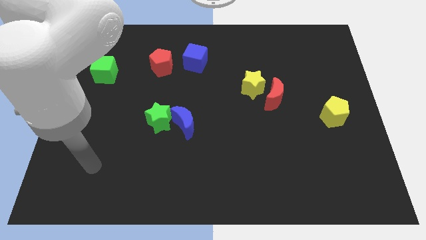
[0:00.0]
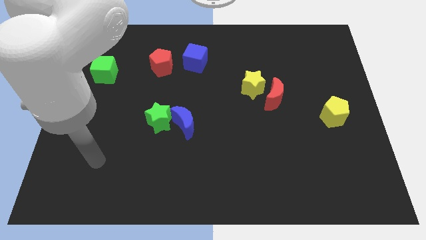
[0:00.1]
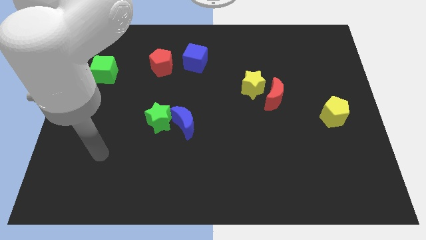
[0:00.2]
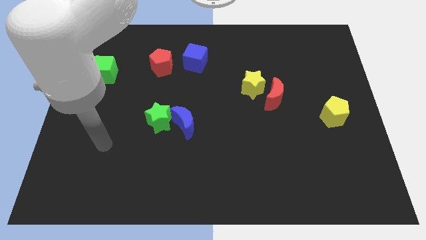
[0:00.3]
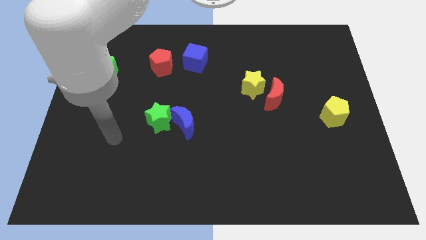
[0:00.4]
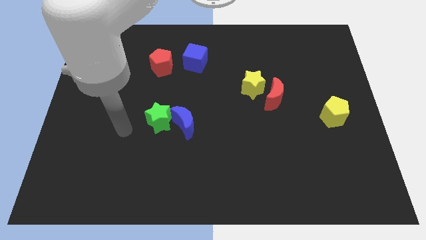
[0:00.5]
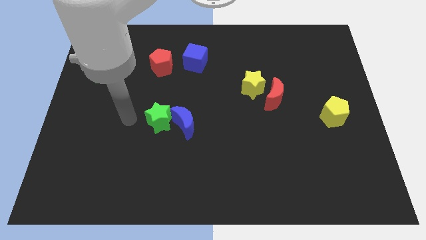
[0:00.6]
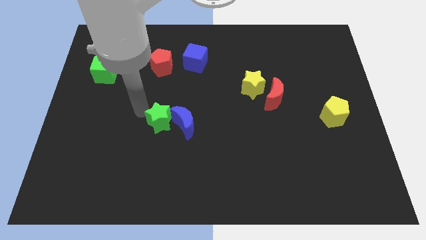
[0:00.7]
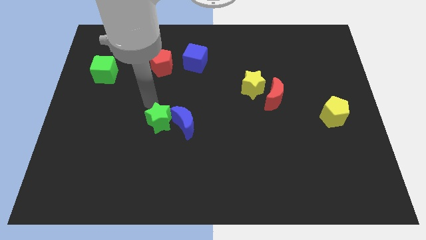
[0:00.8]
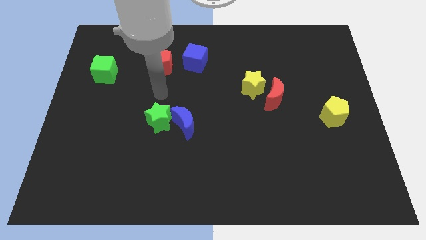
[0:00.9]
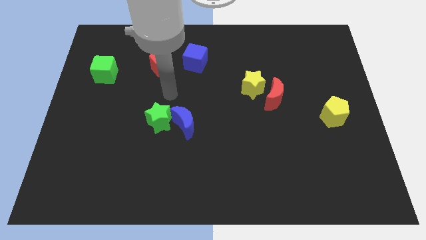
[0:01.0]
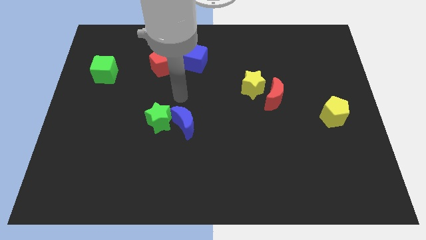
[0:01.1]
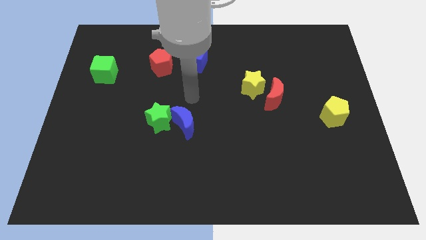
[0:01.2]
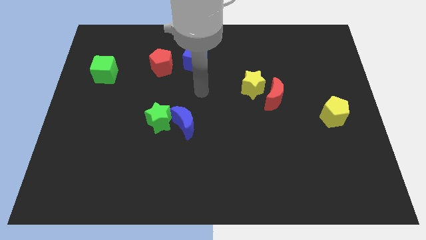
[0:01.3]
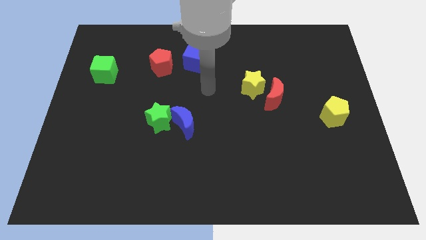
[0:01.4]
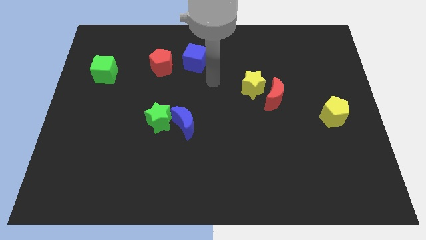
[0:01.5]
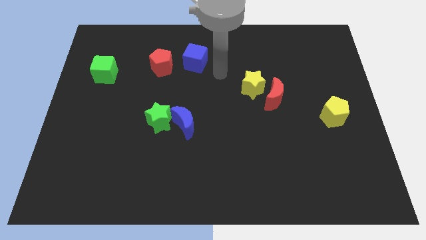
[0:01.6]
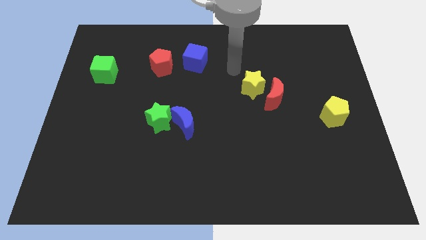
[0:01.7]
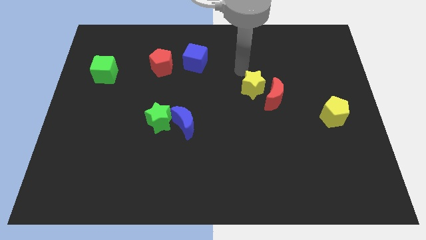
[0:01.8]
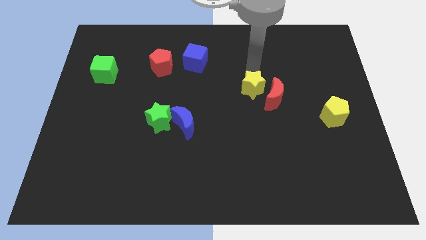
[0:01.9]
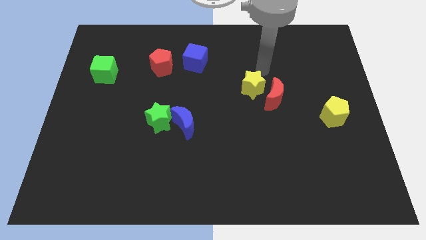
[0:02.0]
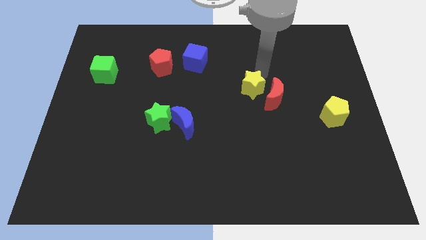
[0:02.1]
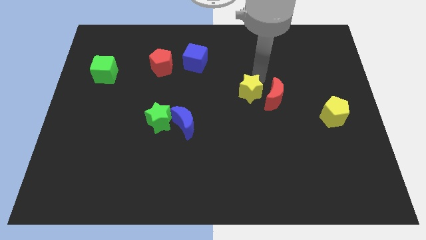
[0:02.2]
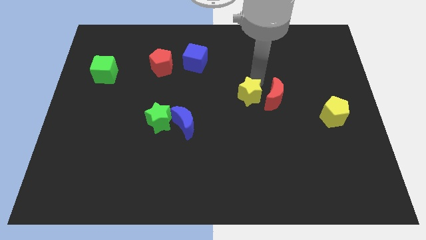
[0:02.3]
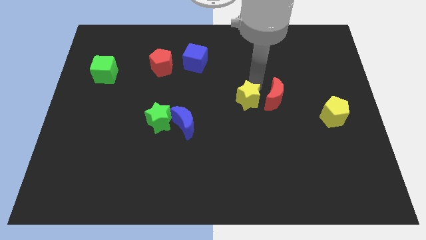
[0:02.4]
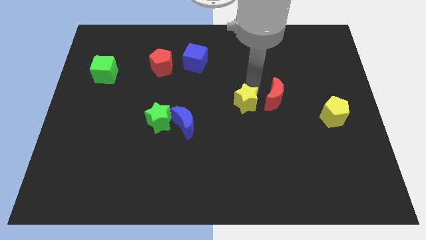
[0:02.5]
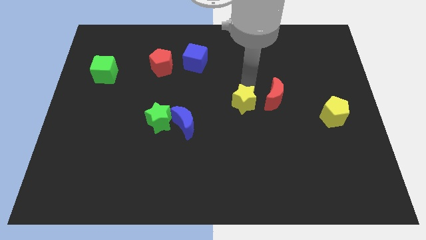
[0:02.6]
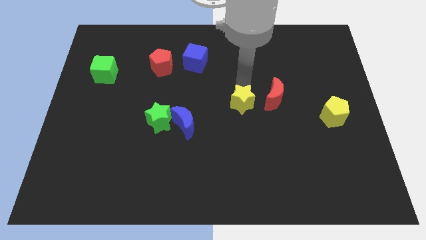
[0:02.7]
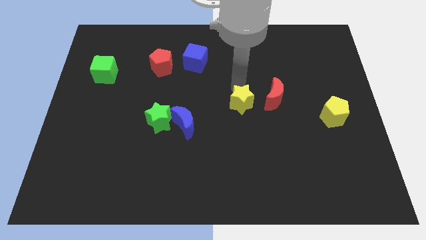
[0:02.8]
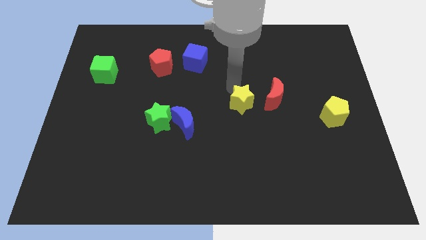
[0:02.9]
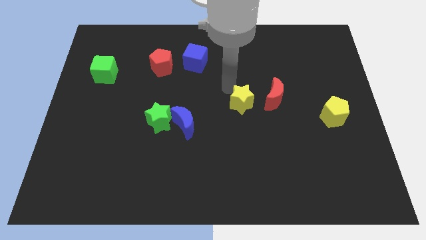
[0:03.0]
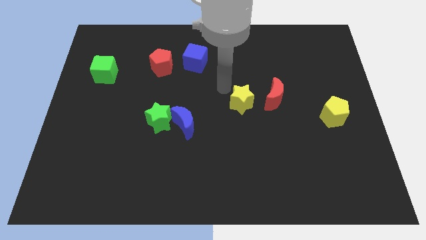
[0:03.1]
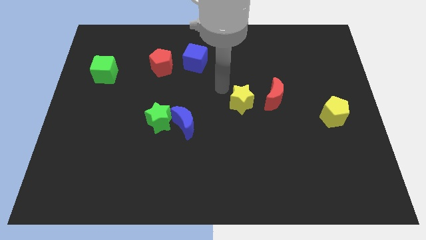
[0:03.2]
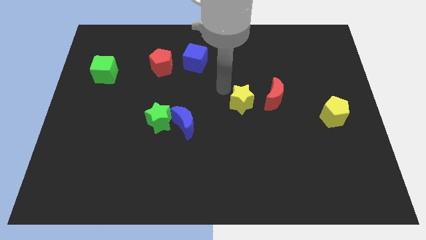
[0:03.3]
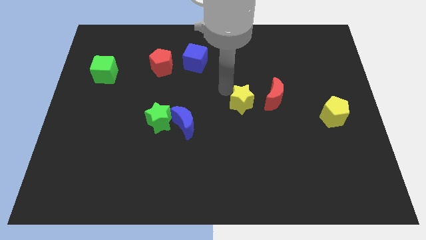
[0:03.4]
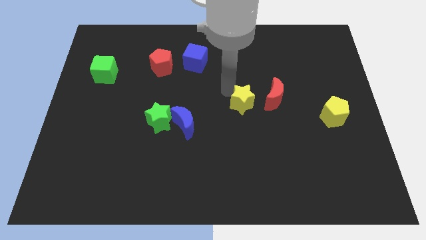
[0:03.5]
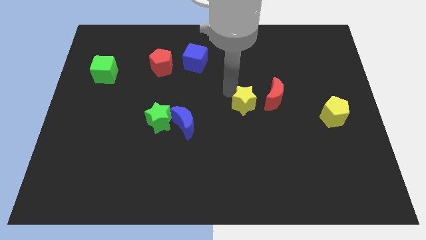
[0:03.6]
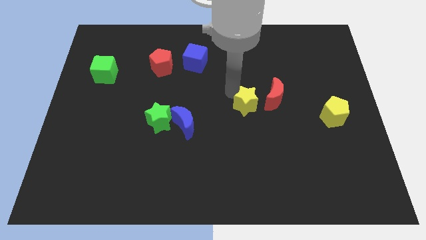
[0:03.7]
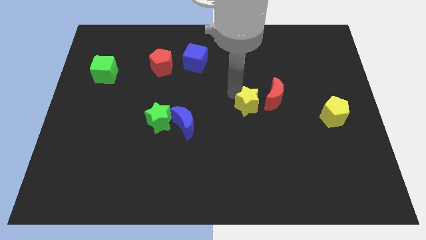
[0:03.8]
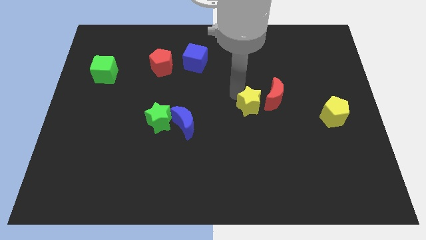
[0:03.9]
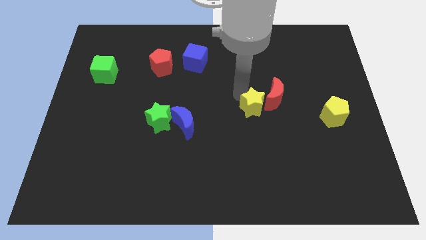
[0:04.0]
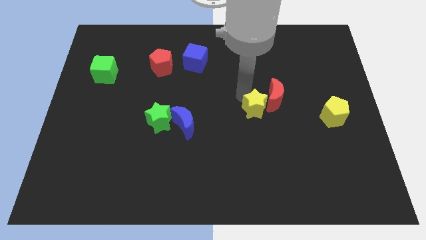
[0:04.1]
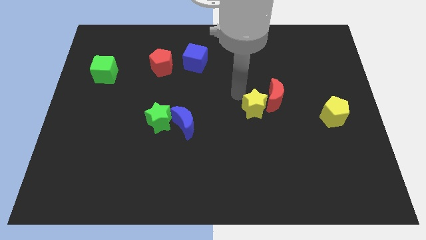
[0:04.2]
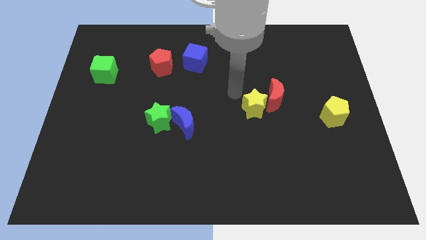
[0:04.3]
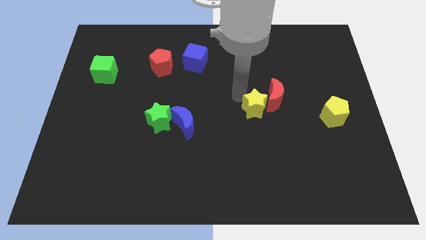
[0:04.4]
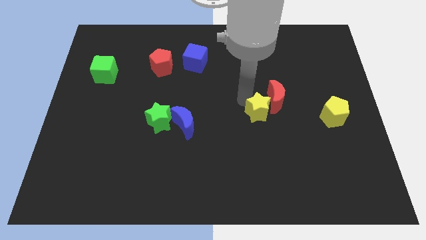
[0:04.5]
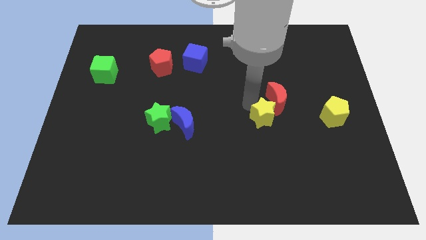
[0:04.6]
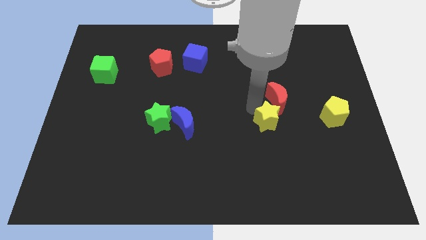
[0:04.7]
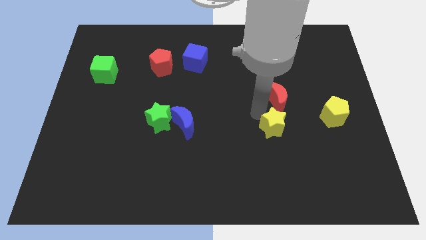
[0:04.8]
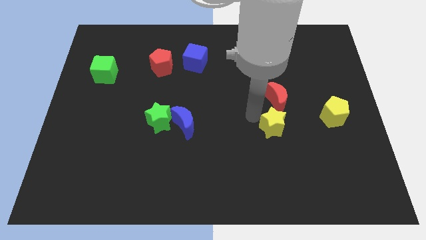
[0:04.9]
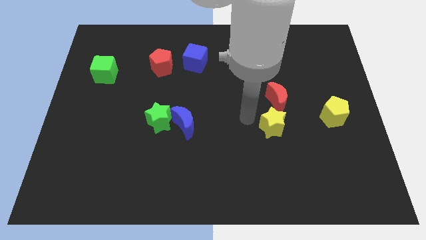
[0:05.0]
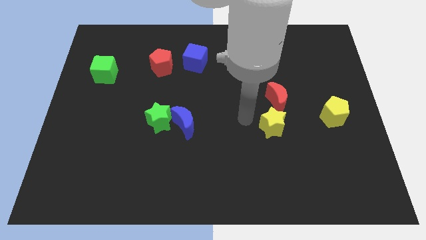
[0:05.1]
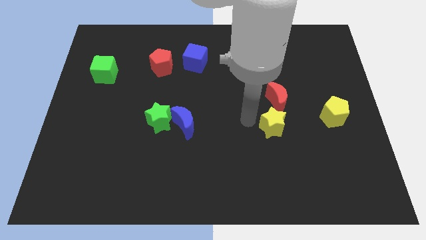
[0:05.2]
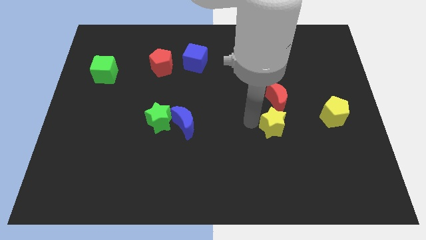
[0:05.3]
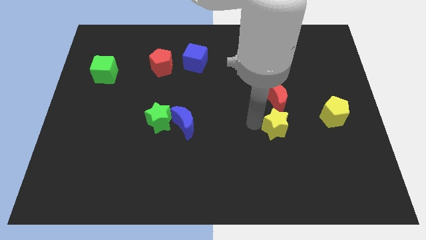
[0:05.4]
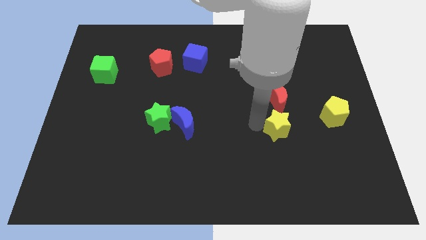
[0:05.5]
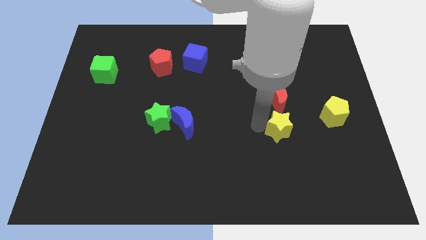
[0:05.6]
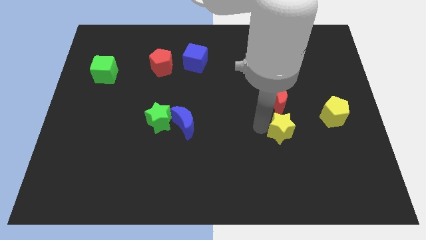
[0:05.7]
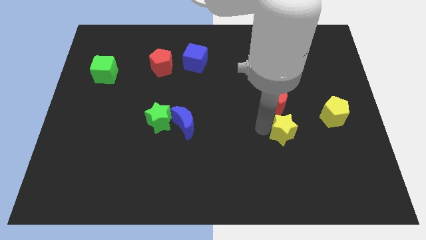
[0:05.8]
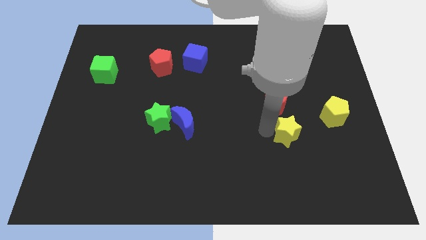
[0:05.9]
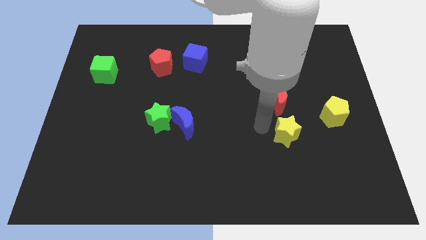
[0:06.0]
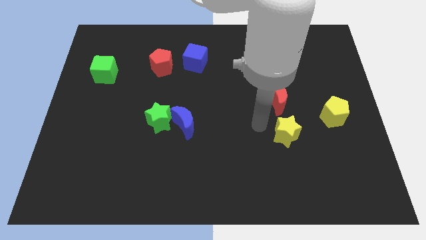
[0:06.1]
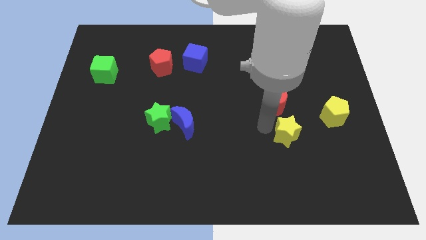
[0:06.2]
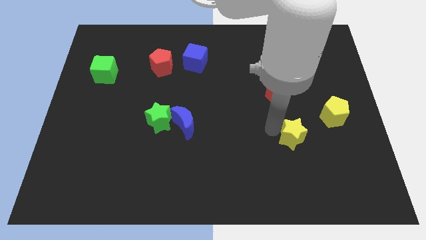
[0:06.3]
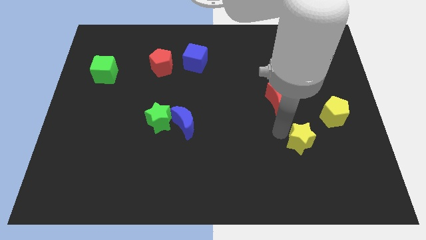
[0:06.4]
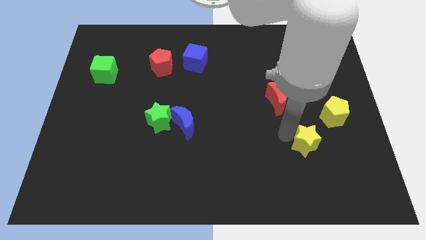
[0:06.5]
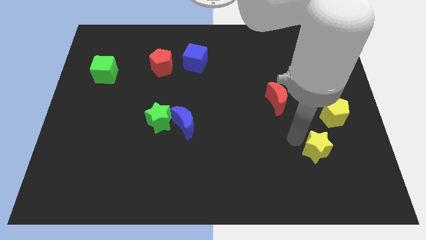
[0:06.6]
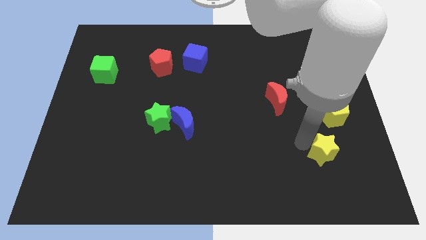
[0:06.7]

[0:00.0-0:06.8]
push the yellow star to the bottom of the yellow pentagon

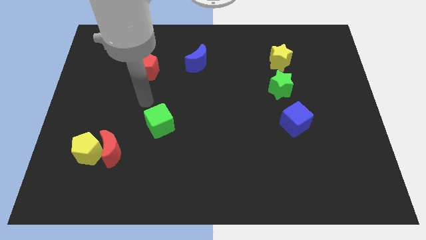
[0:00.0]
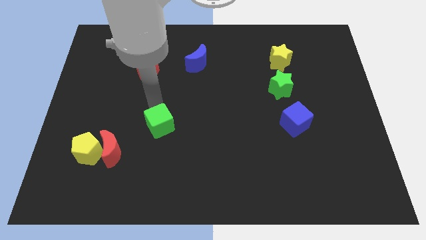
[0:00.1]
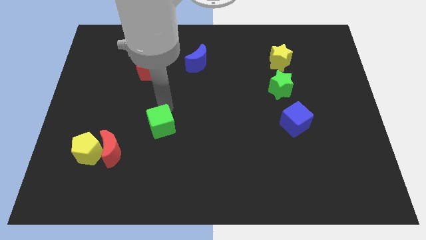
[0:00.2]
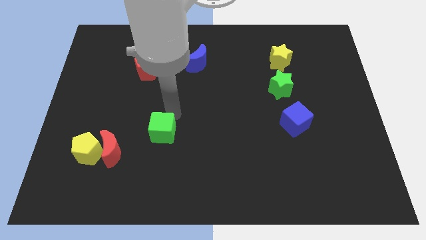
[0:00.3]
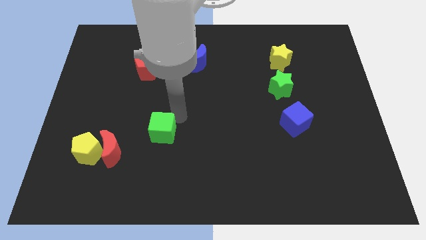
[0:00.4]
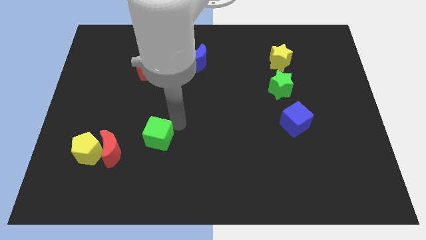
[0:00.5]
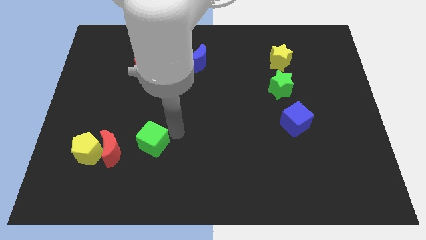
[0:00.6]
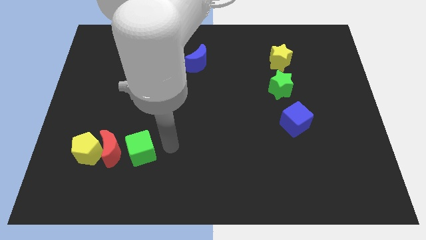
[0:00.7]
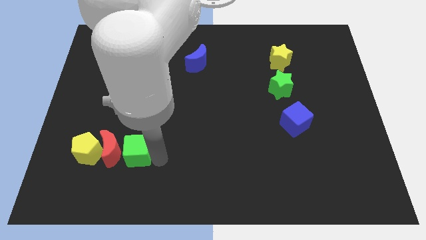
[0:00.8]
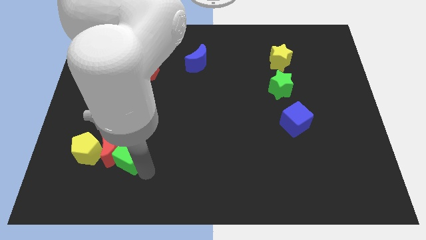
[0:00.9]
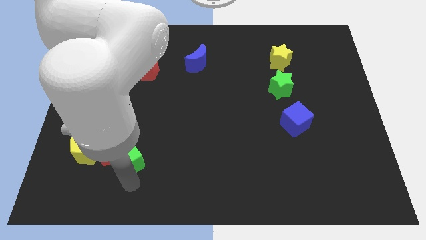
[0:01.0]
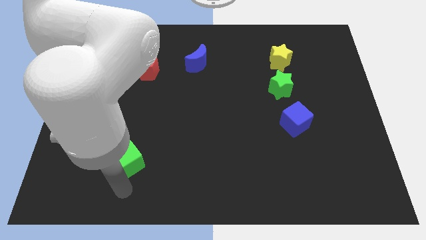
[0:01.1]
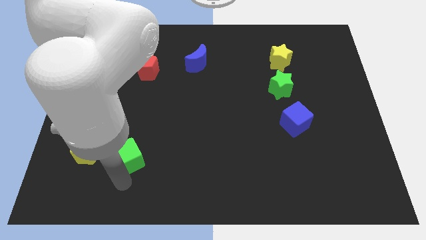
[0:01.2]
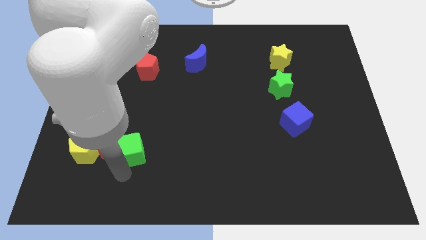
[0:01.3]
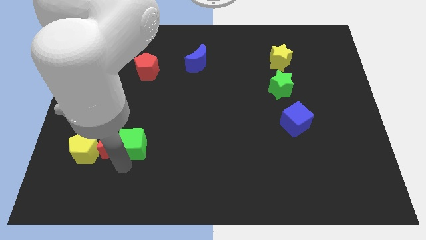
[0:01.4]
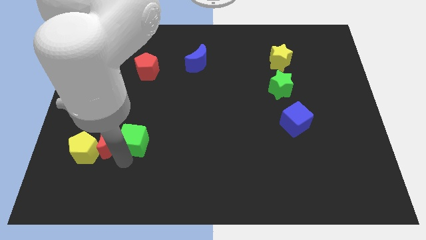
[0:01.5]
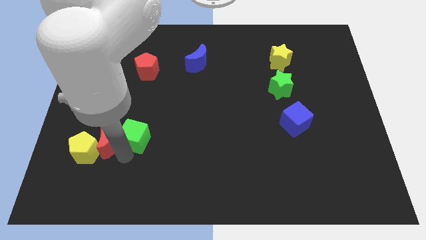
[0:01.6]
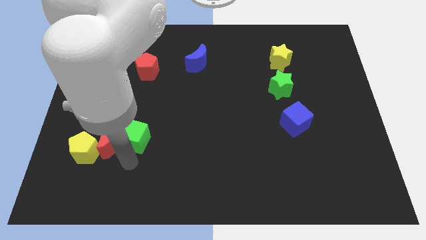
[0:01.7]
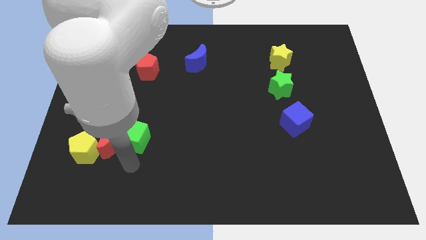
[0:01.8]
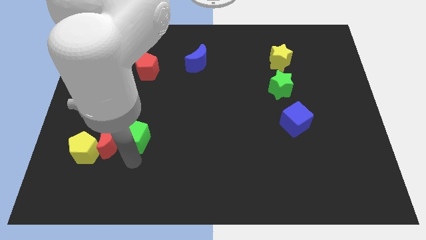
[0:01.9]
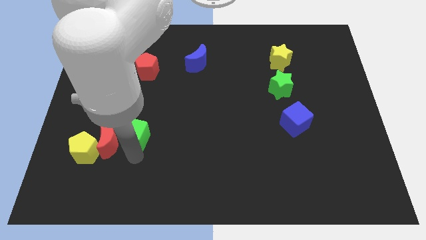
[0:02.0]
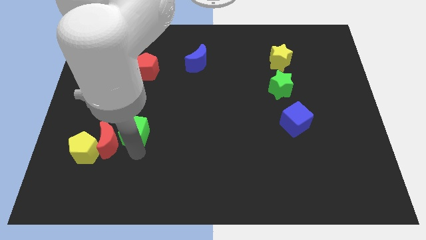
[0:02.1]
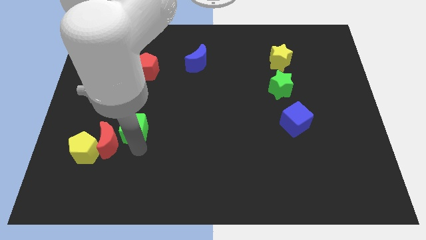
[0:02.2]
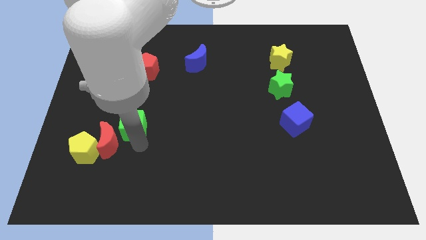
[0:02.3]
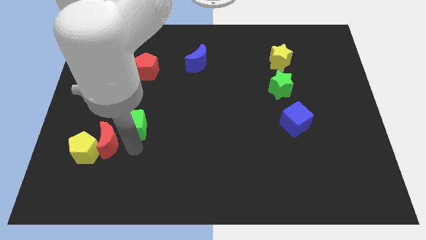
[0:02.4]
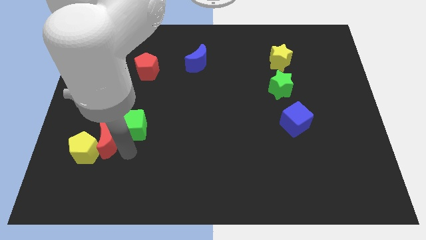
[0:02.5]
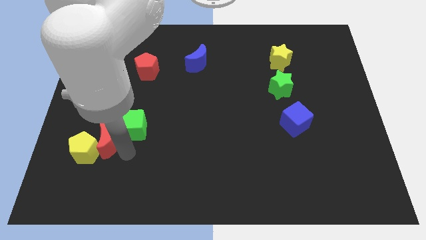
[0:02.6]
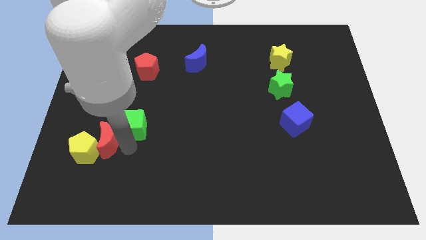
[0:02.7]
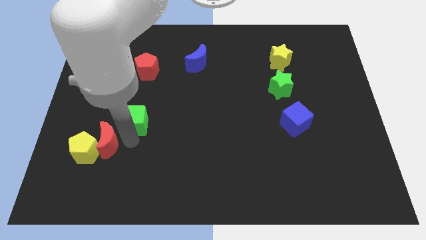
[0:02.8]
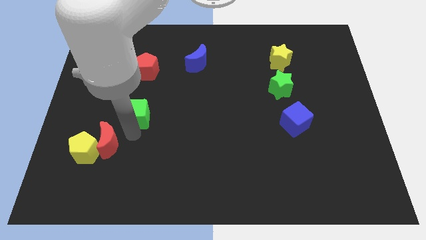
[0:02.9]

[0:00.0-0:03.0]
put the green cube to the bottom side of the red pentagon
